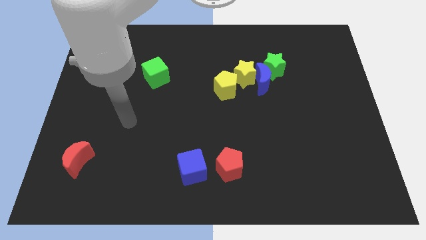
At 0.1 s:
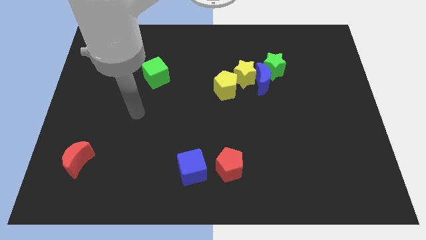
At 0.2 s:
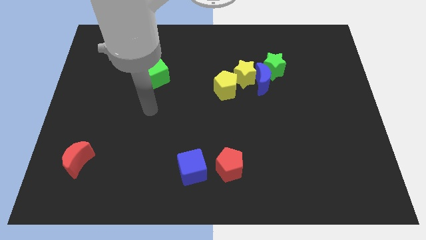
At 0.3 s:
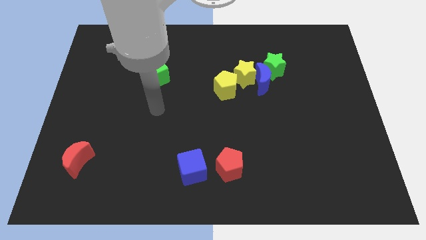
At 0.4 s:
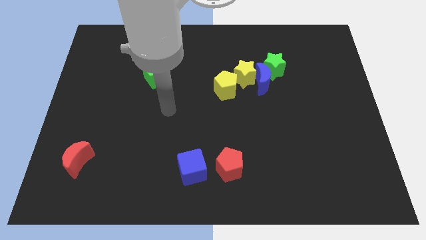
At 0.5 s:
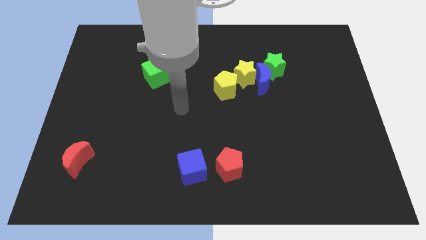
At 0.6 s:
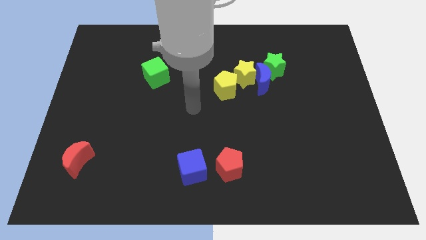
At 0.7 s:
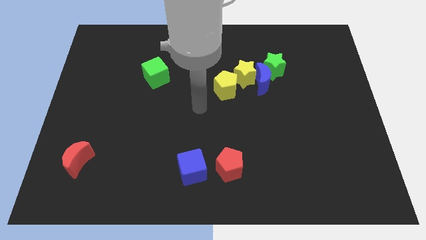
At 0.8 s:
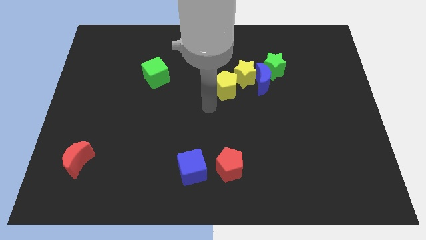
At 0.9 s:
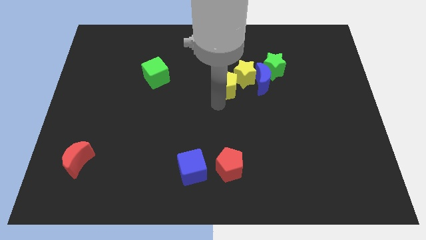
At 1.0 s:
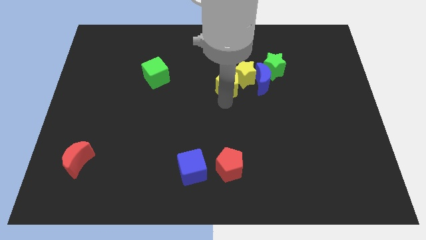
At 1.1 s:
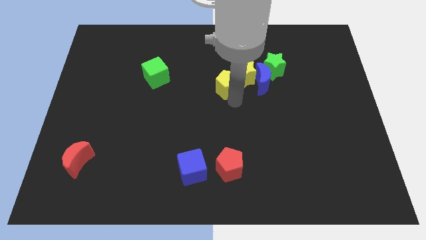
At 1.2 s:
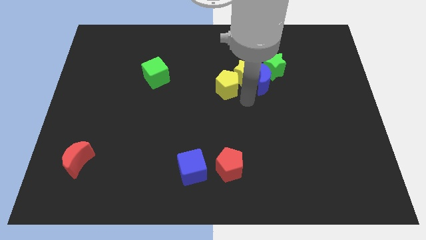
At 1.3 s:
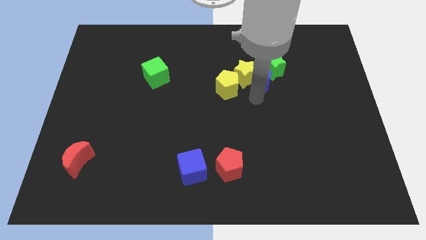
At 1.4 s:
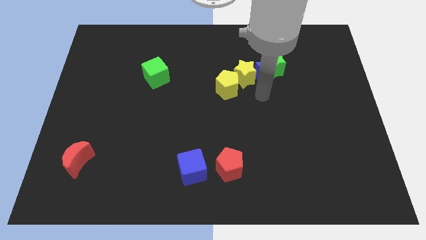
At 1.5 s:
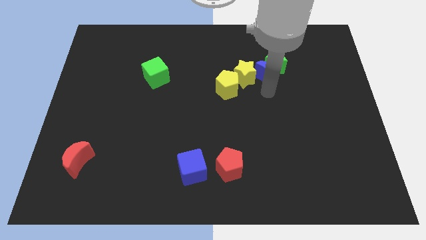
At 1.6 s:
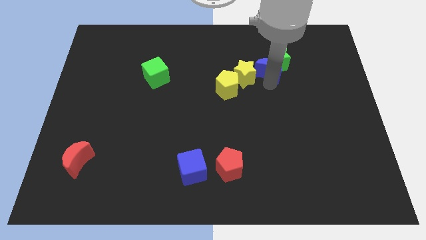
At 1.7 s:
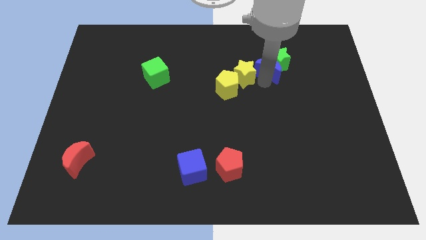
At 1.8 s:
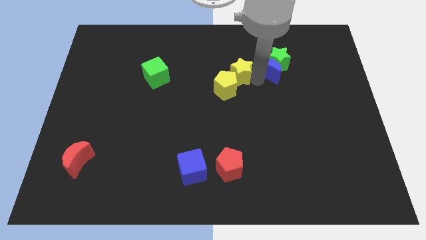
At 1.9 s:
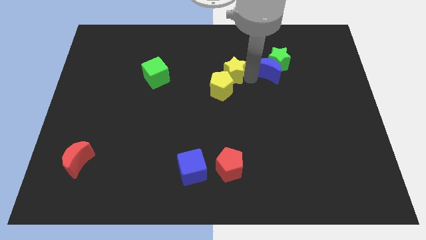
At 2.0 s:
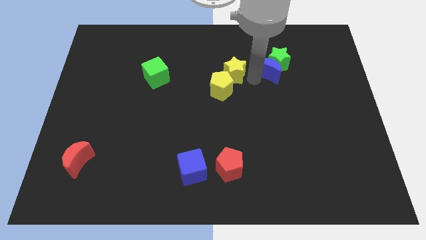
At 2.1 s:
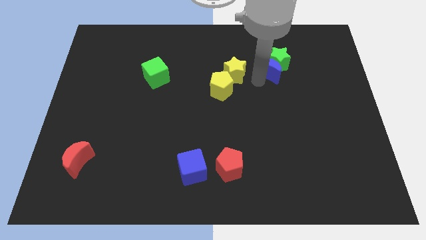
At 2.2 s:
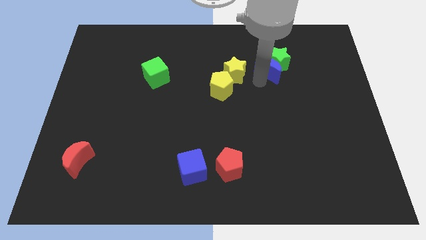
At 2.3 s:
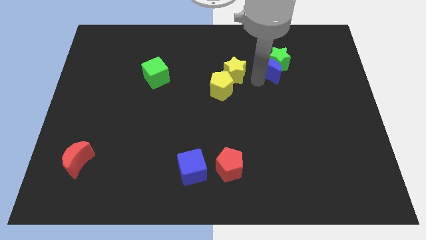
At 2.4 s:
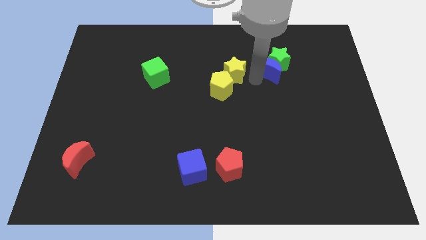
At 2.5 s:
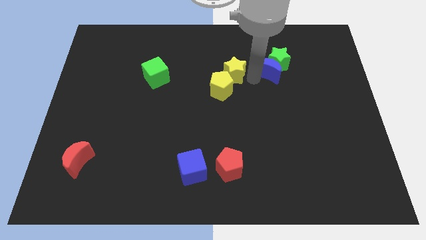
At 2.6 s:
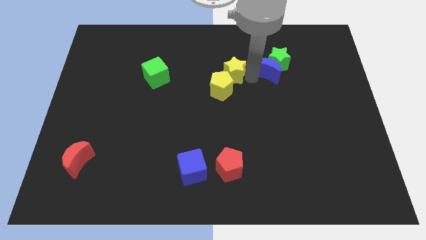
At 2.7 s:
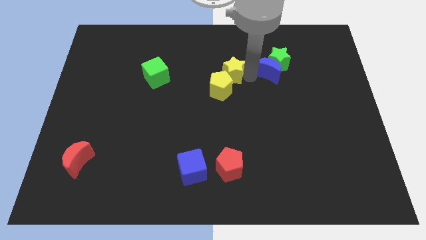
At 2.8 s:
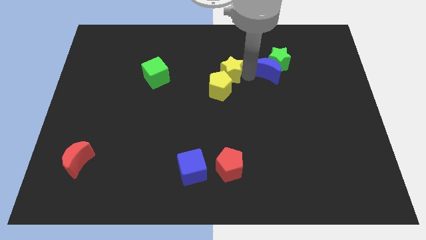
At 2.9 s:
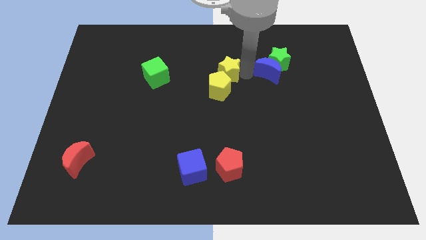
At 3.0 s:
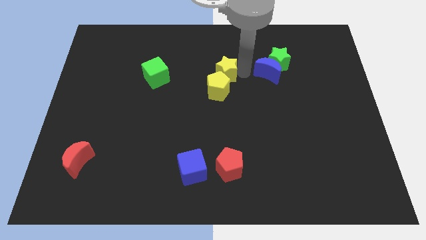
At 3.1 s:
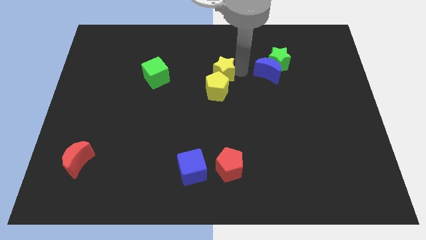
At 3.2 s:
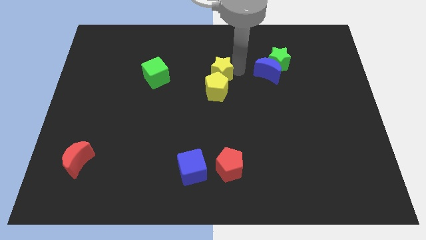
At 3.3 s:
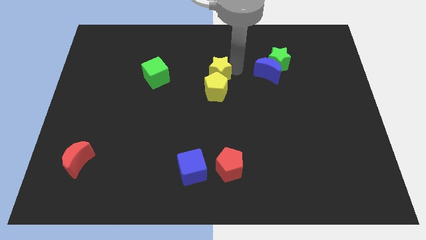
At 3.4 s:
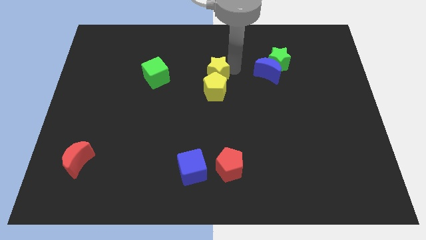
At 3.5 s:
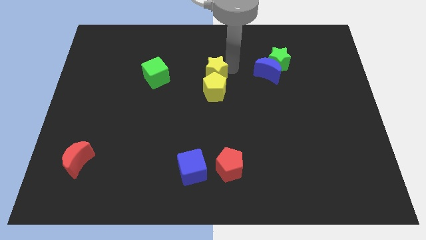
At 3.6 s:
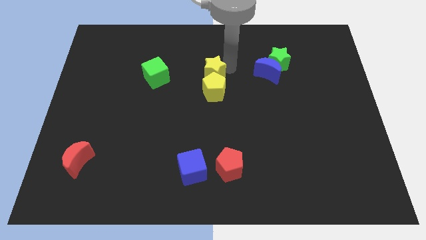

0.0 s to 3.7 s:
separate the yellow star from the blue moon, yellow pentagon, and green star

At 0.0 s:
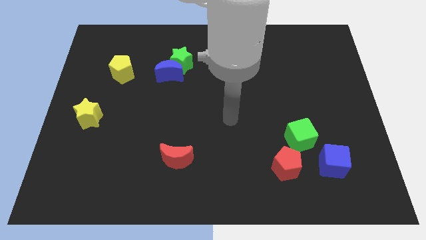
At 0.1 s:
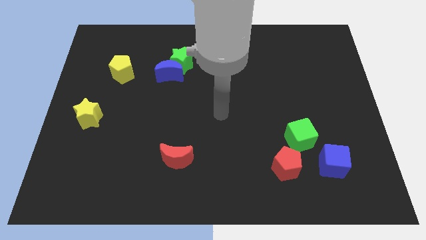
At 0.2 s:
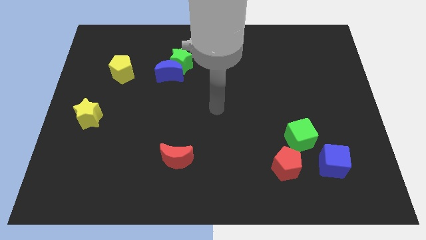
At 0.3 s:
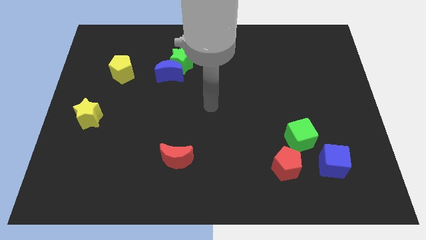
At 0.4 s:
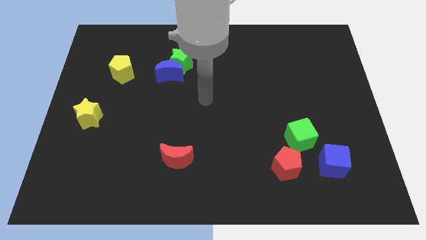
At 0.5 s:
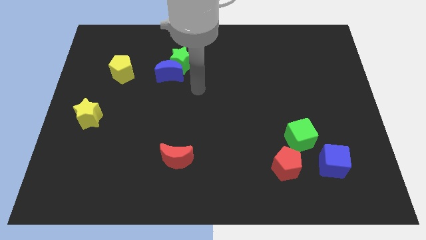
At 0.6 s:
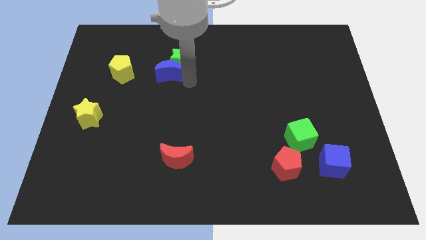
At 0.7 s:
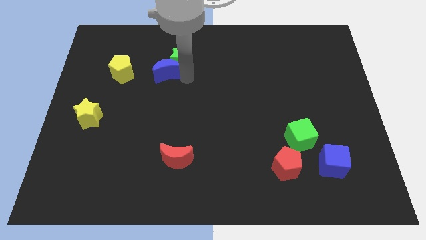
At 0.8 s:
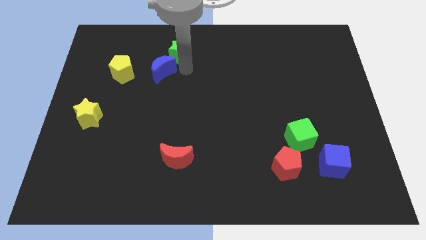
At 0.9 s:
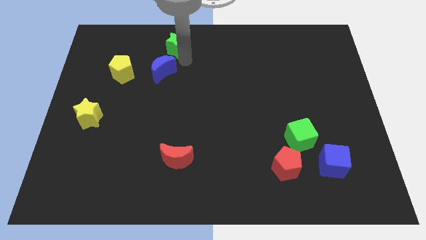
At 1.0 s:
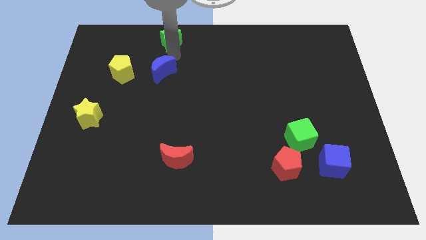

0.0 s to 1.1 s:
move the blue moon away from the green star

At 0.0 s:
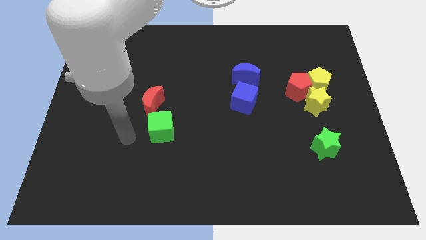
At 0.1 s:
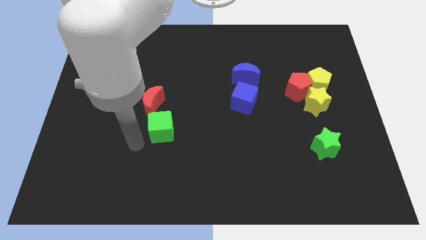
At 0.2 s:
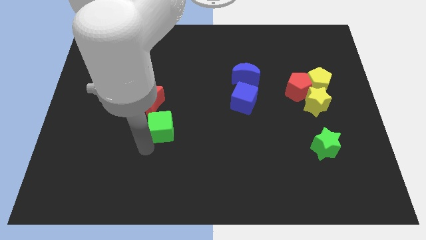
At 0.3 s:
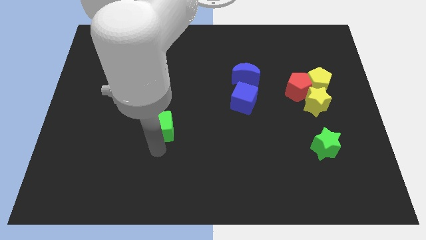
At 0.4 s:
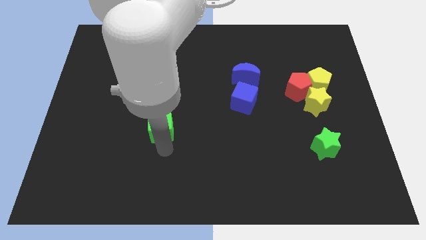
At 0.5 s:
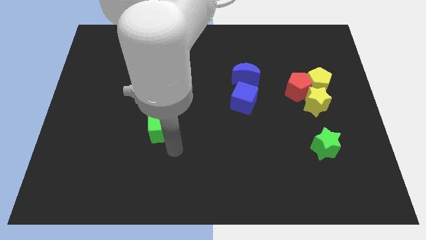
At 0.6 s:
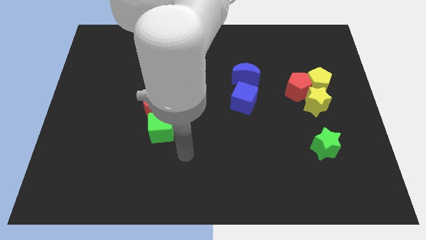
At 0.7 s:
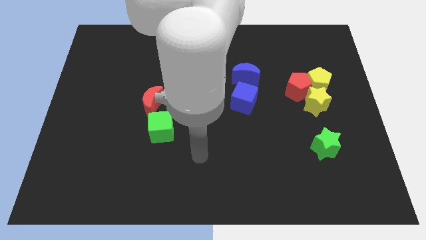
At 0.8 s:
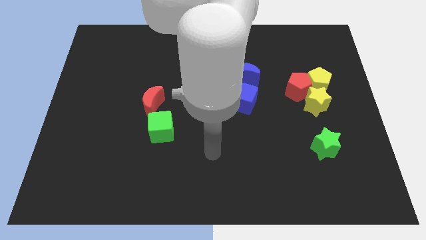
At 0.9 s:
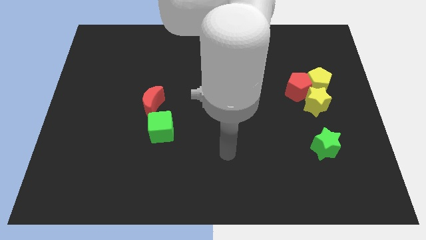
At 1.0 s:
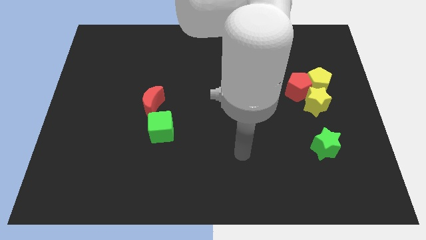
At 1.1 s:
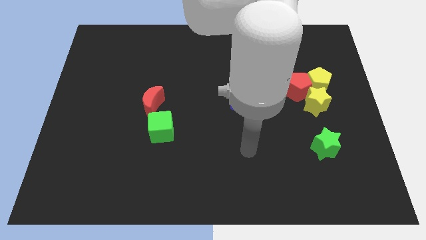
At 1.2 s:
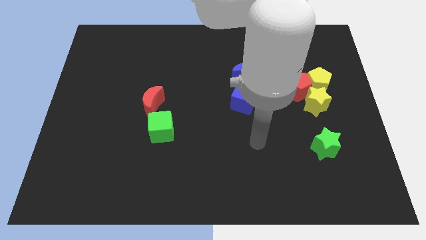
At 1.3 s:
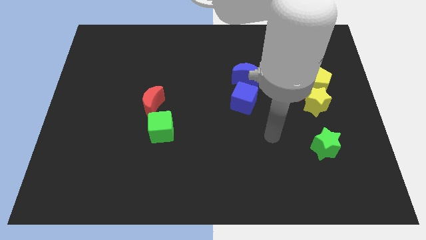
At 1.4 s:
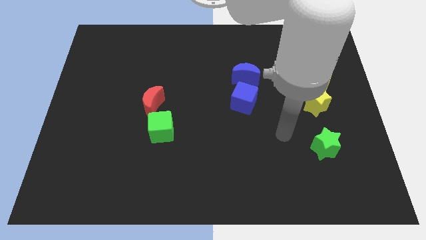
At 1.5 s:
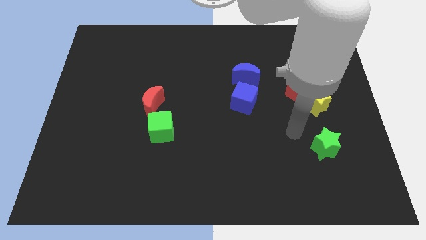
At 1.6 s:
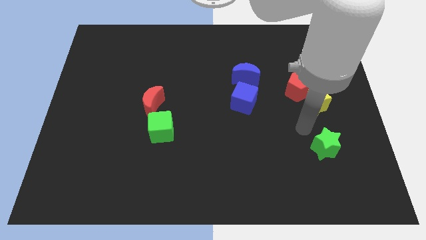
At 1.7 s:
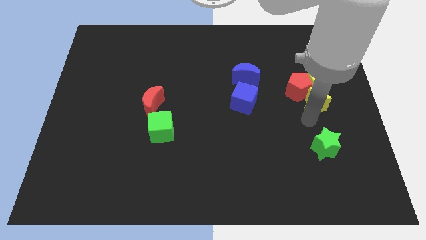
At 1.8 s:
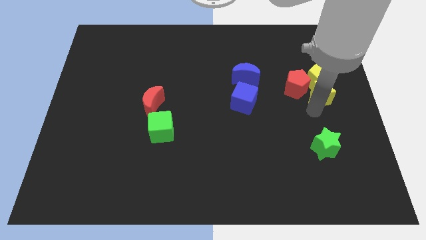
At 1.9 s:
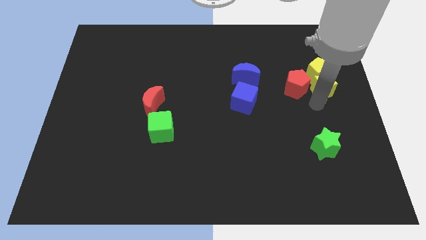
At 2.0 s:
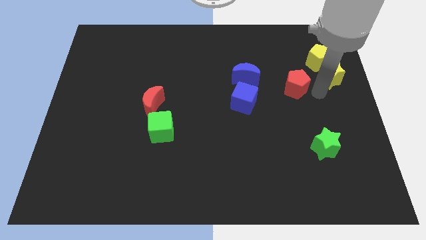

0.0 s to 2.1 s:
move the red pentagon away from the yellow pentagon and yellow star

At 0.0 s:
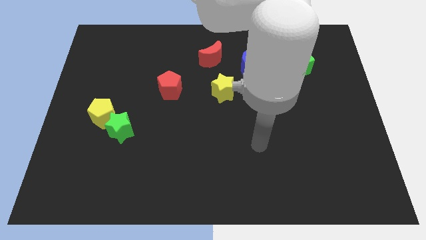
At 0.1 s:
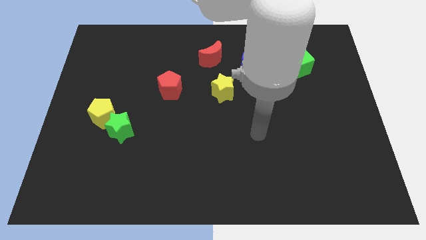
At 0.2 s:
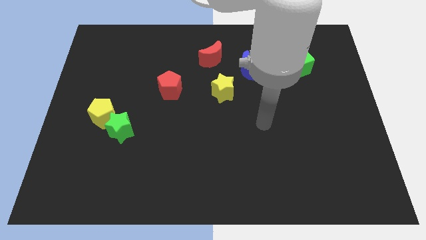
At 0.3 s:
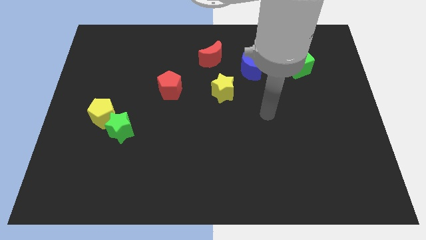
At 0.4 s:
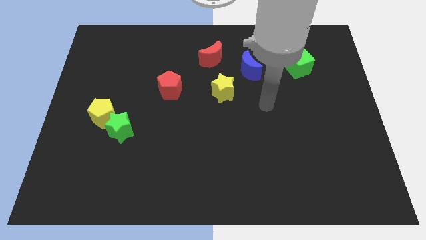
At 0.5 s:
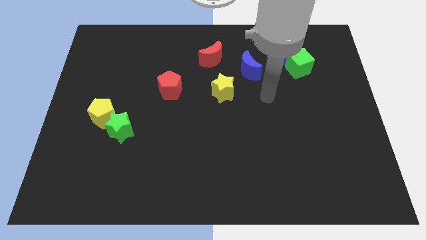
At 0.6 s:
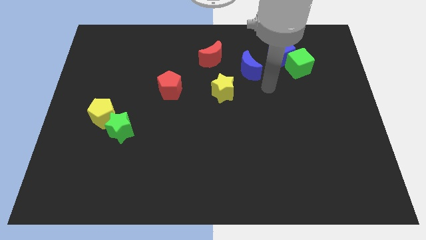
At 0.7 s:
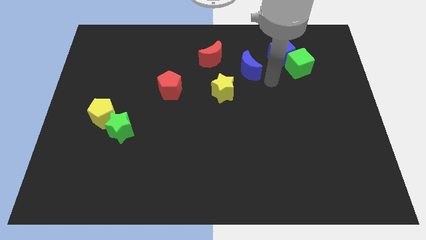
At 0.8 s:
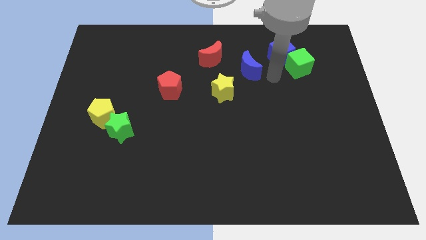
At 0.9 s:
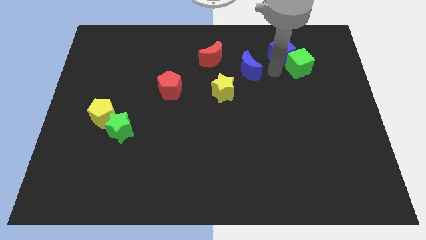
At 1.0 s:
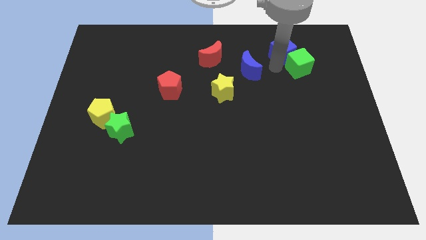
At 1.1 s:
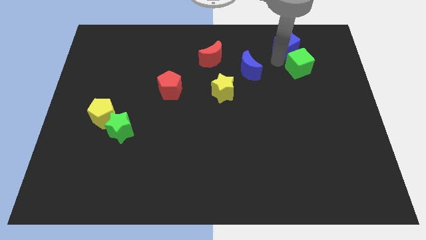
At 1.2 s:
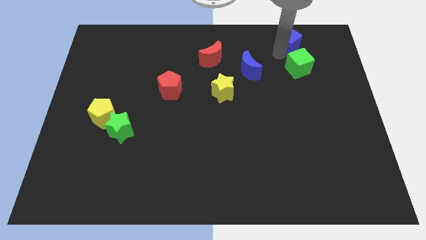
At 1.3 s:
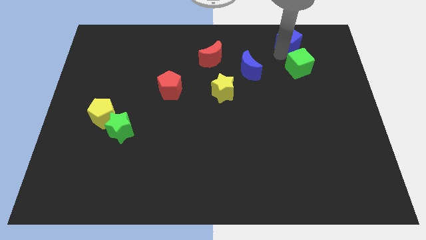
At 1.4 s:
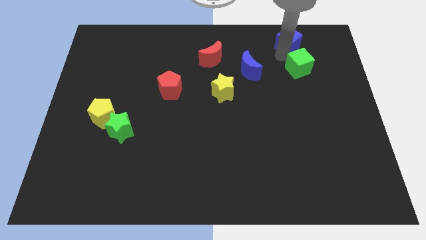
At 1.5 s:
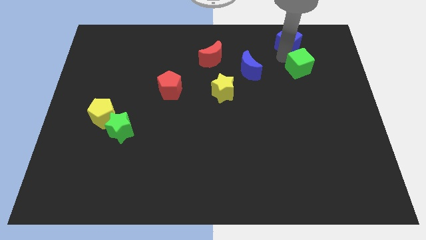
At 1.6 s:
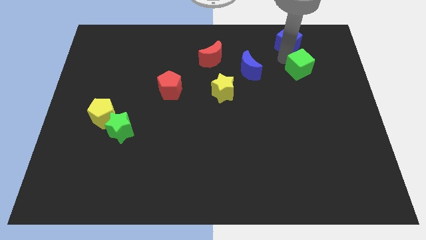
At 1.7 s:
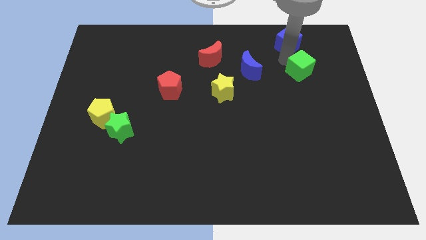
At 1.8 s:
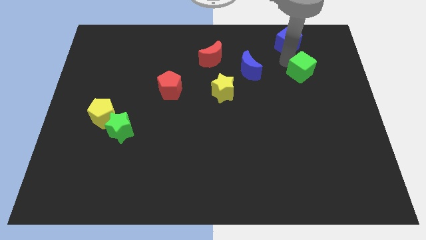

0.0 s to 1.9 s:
move the green cube away from the blue cube

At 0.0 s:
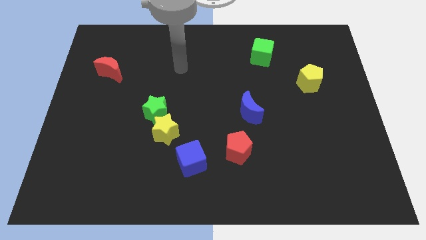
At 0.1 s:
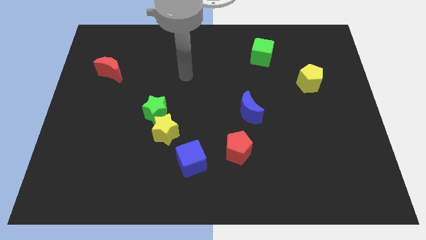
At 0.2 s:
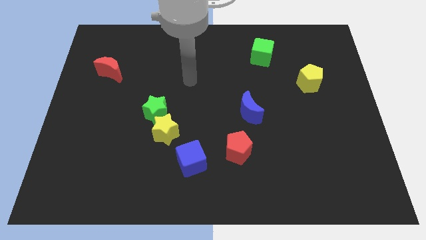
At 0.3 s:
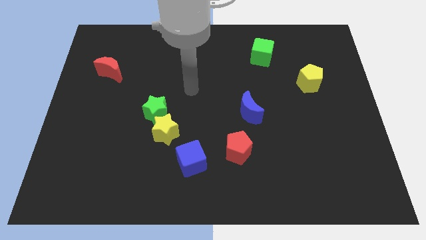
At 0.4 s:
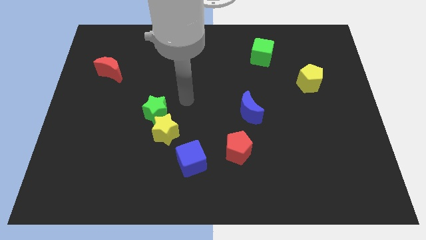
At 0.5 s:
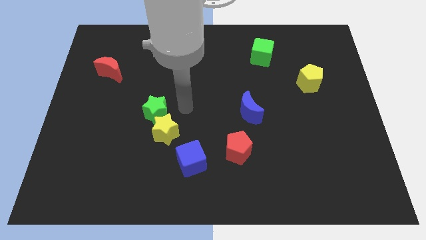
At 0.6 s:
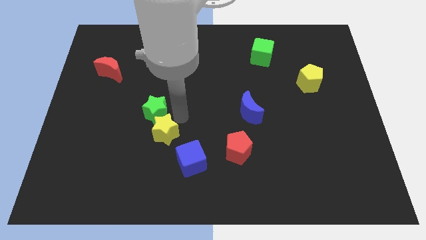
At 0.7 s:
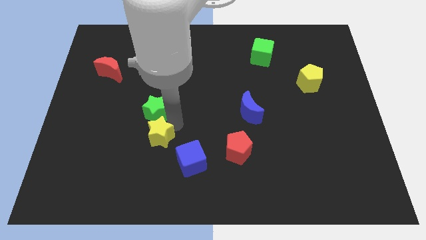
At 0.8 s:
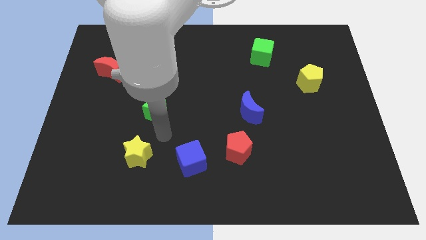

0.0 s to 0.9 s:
pull the green star apart from the yellow star
